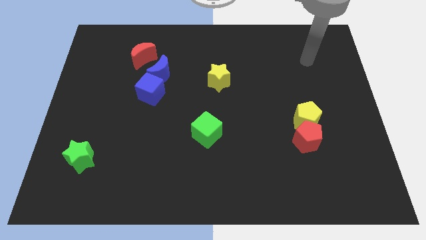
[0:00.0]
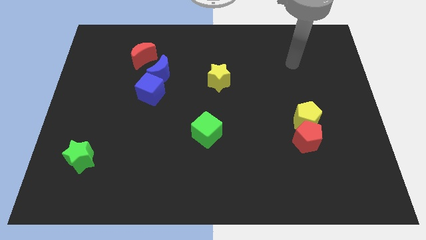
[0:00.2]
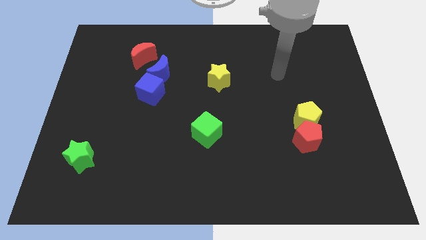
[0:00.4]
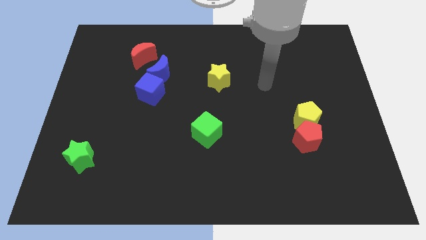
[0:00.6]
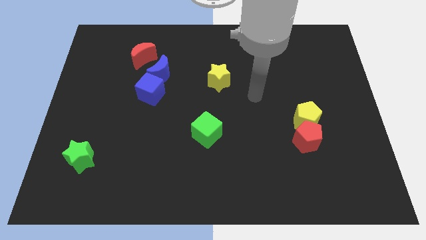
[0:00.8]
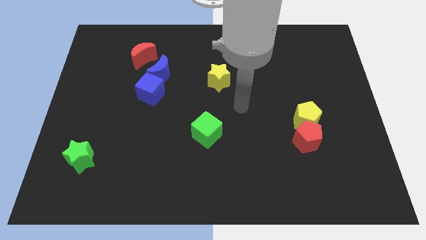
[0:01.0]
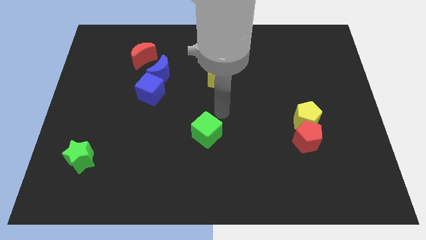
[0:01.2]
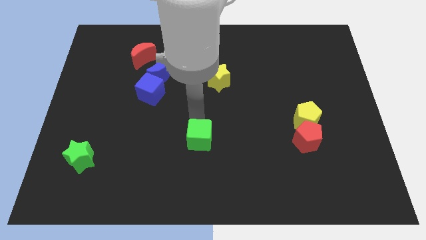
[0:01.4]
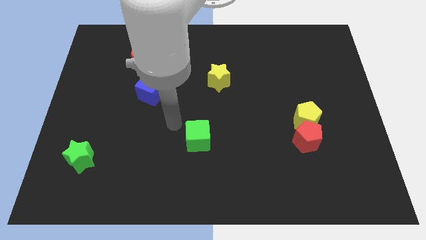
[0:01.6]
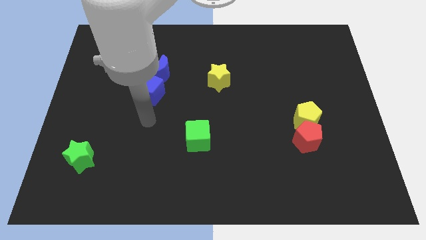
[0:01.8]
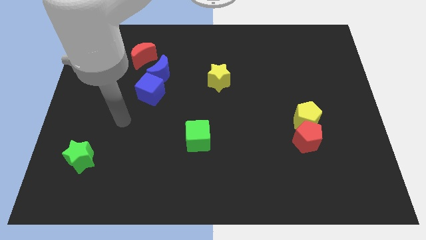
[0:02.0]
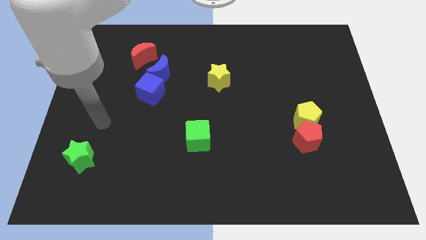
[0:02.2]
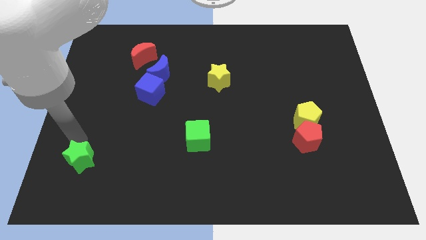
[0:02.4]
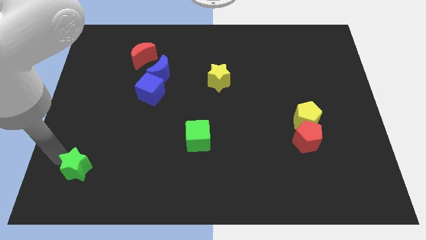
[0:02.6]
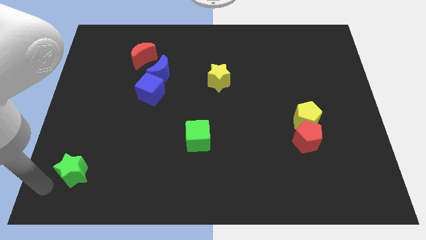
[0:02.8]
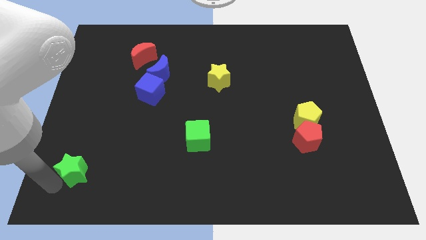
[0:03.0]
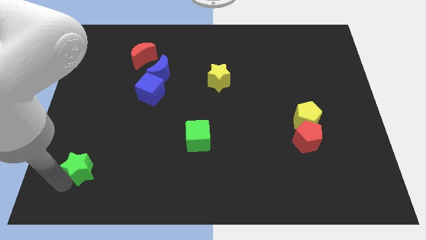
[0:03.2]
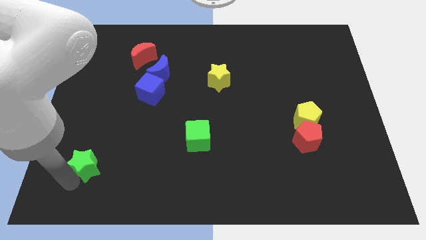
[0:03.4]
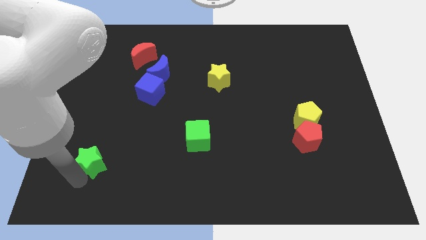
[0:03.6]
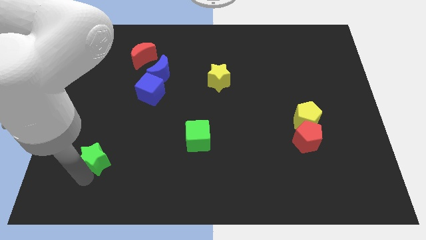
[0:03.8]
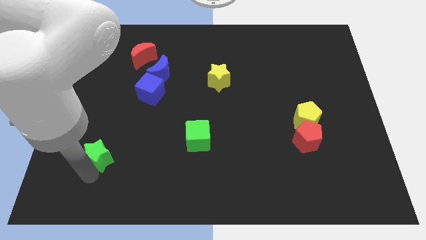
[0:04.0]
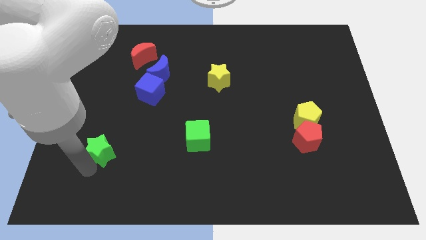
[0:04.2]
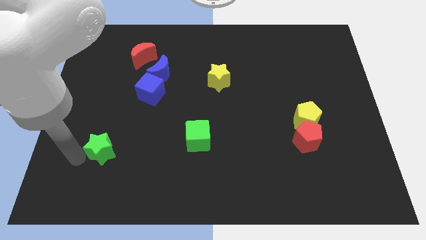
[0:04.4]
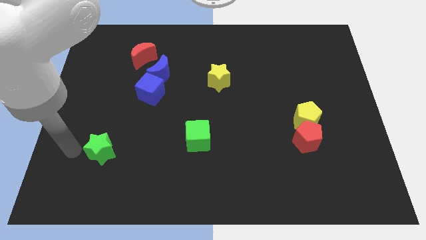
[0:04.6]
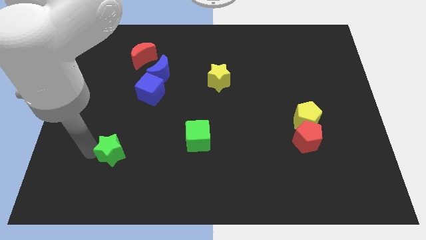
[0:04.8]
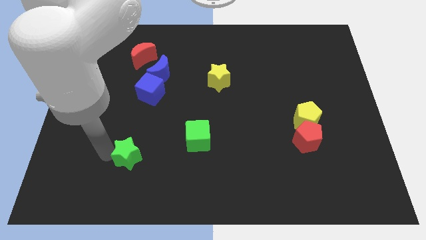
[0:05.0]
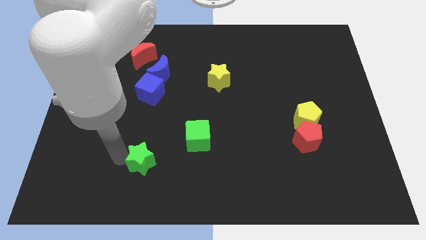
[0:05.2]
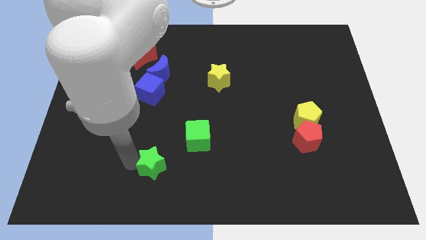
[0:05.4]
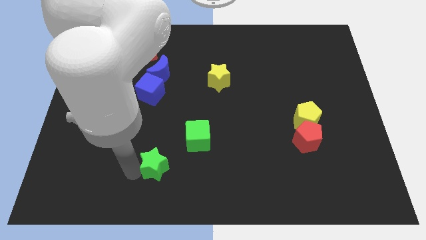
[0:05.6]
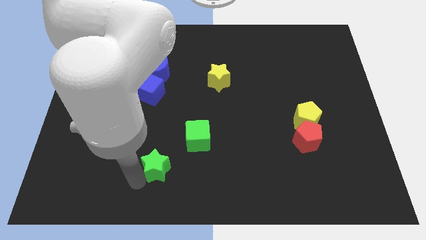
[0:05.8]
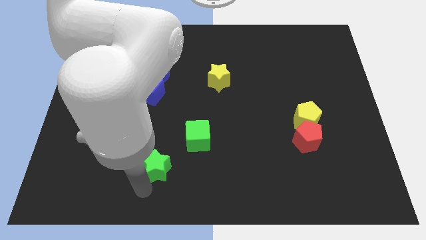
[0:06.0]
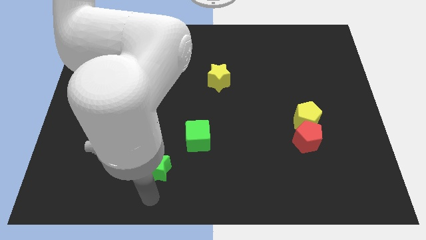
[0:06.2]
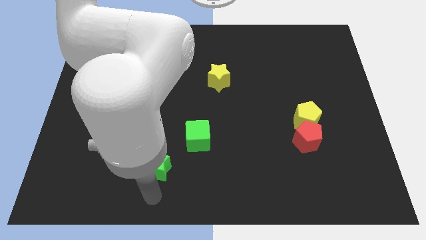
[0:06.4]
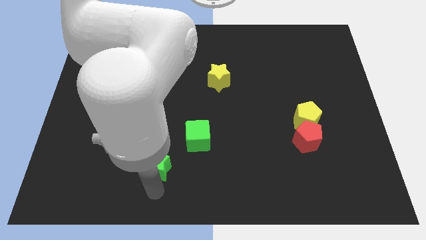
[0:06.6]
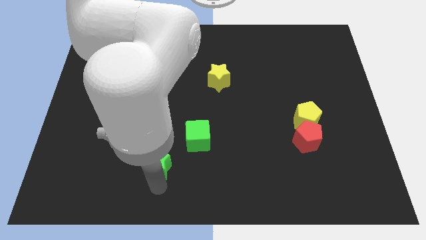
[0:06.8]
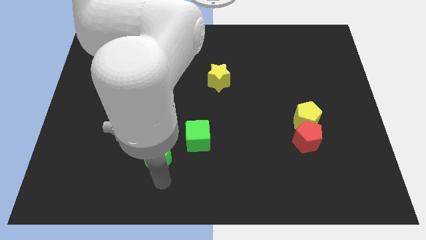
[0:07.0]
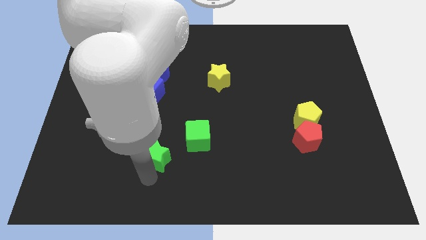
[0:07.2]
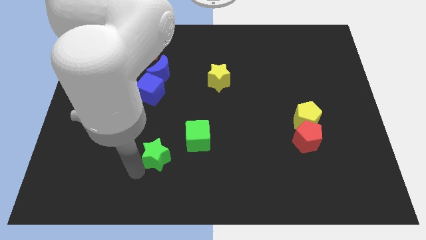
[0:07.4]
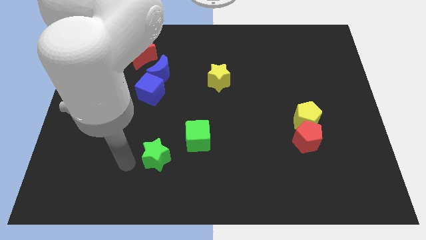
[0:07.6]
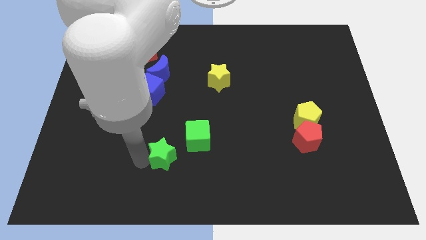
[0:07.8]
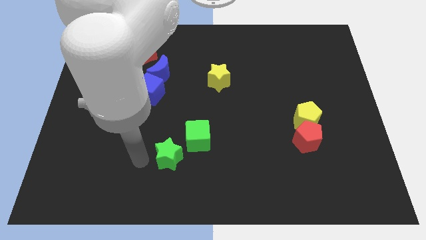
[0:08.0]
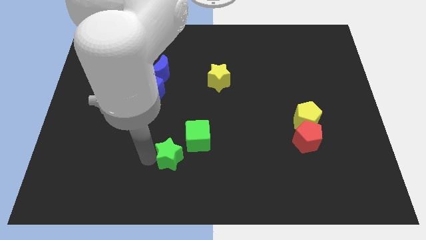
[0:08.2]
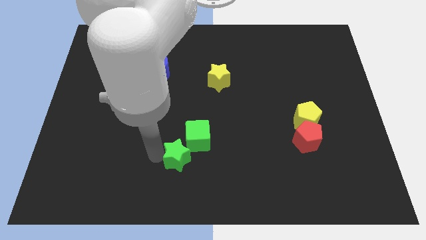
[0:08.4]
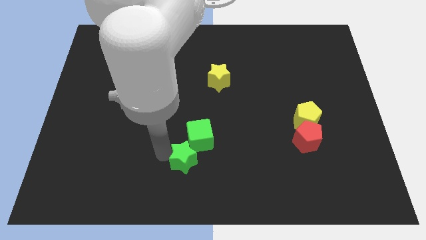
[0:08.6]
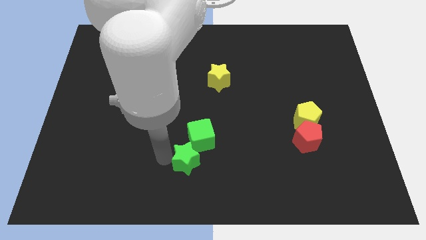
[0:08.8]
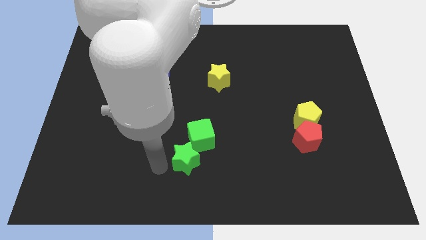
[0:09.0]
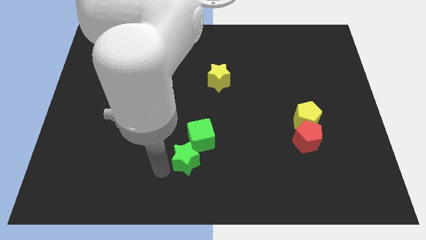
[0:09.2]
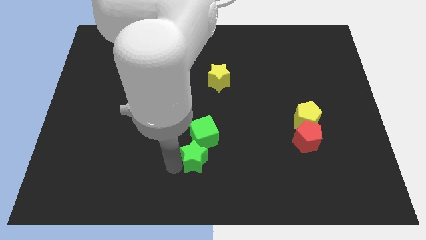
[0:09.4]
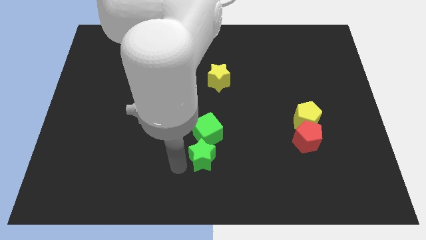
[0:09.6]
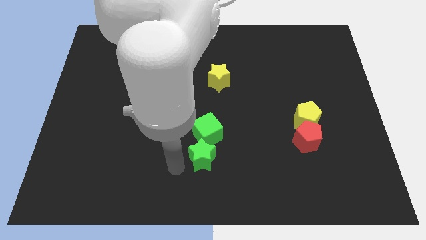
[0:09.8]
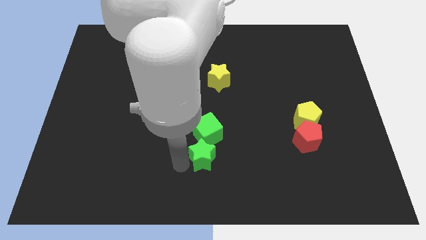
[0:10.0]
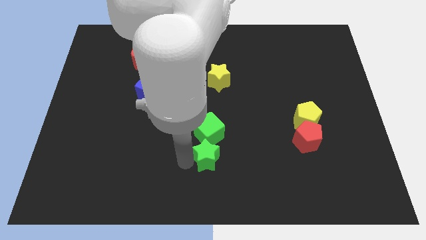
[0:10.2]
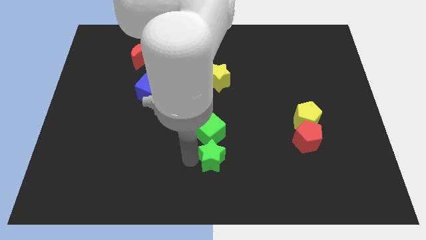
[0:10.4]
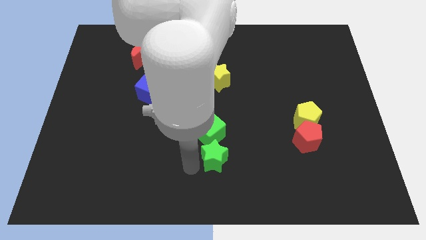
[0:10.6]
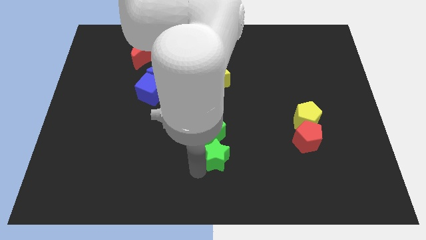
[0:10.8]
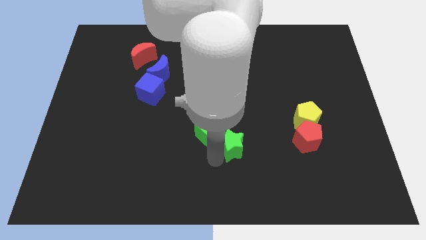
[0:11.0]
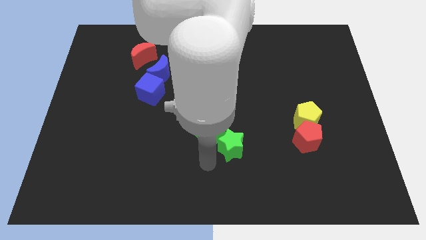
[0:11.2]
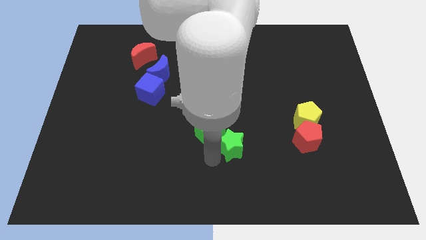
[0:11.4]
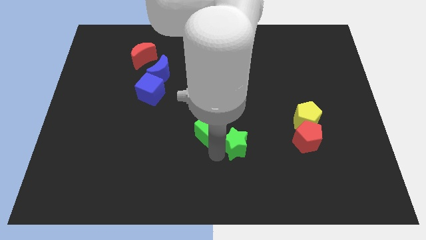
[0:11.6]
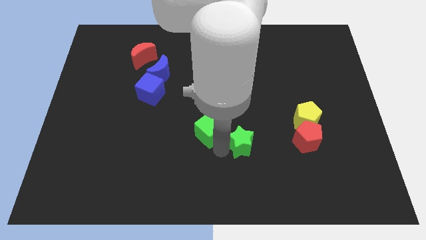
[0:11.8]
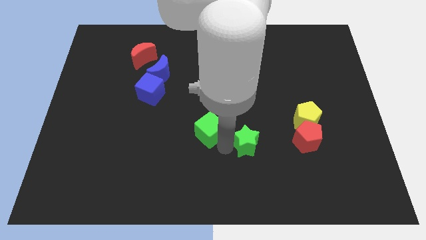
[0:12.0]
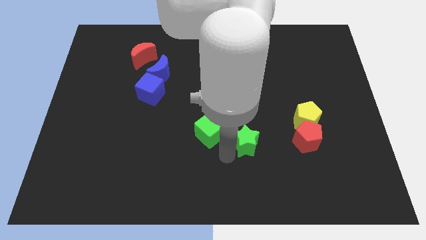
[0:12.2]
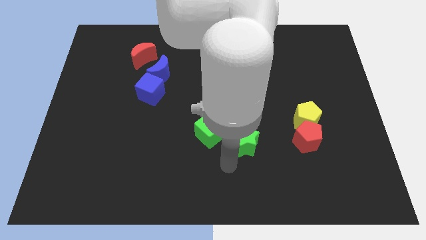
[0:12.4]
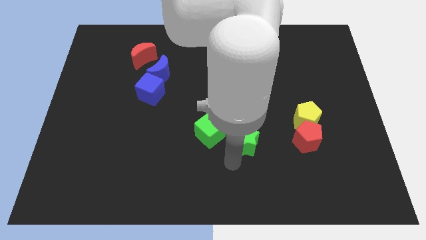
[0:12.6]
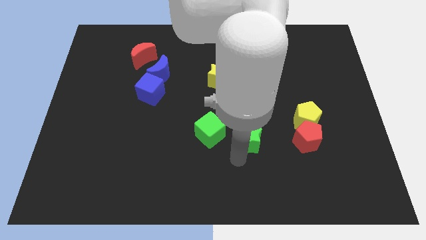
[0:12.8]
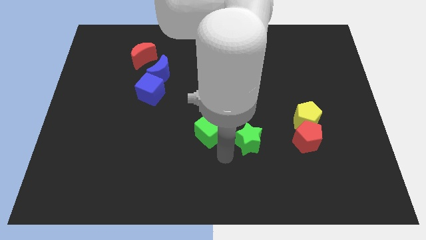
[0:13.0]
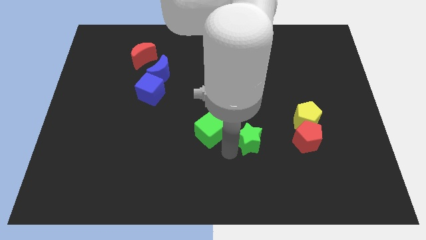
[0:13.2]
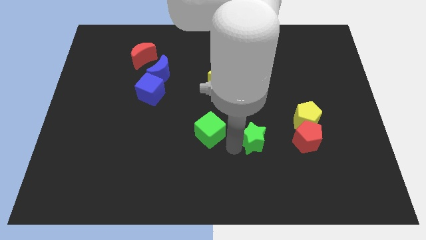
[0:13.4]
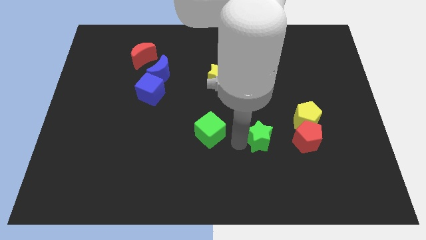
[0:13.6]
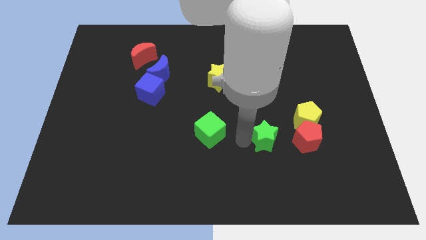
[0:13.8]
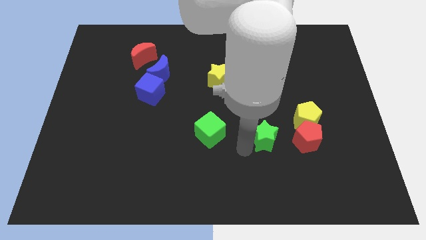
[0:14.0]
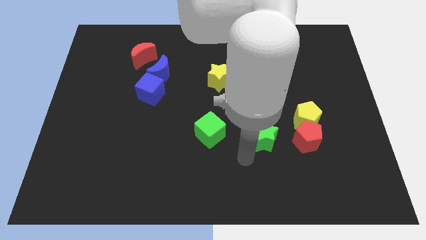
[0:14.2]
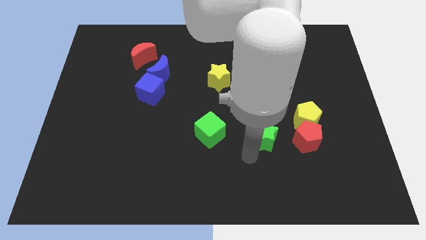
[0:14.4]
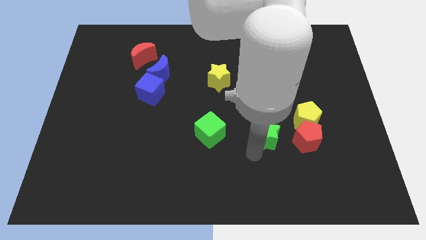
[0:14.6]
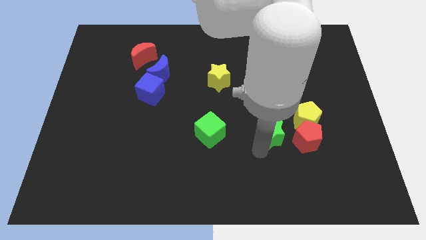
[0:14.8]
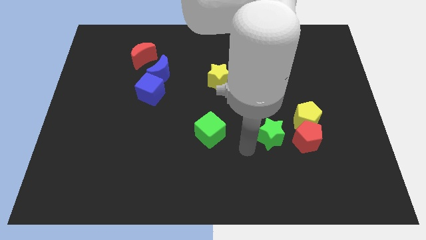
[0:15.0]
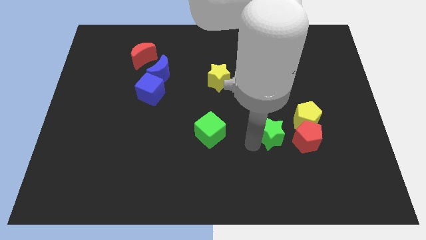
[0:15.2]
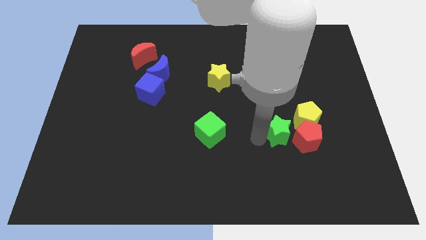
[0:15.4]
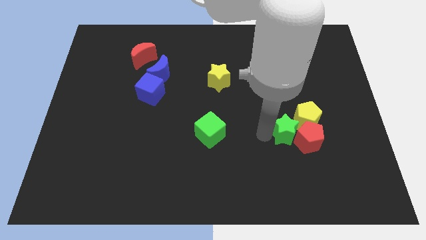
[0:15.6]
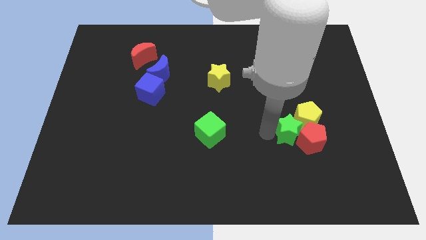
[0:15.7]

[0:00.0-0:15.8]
push the green star next to the yellow pentagon
